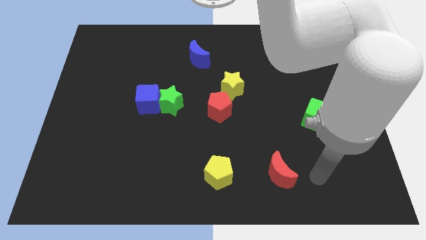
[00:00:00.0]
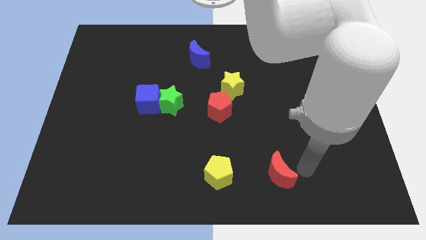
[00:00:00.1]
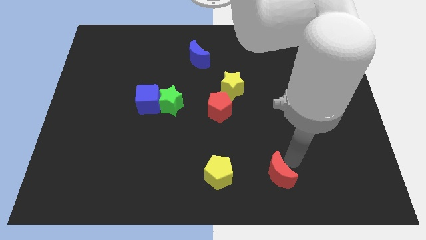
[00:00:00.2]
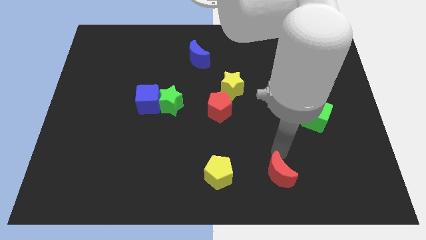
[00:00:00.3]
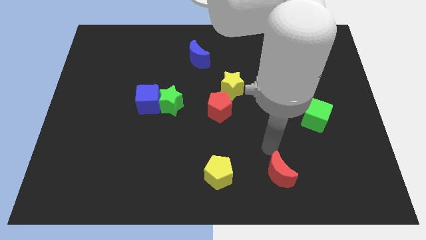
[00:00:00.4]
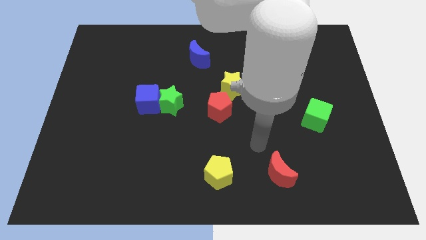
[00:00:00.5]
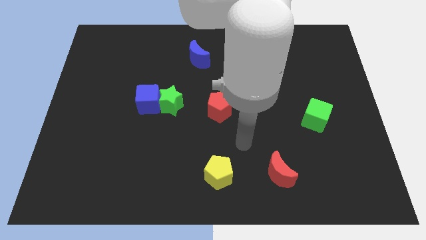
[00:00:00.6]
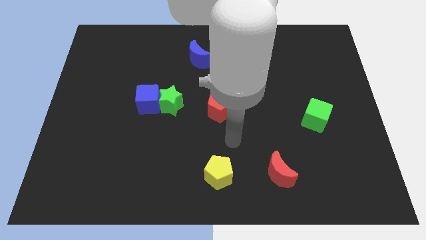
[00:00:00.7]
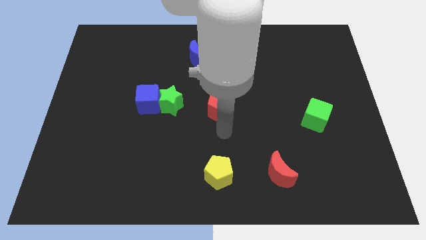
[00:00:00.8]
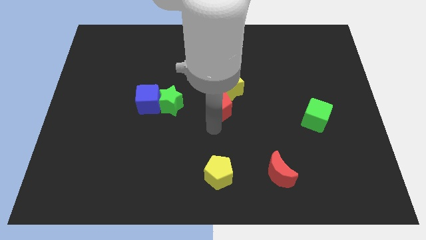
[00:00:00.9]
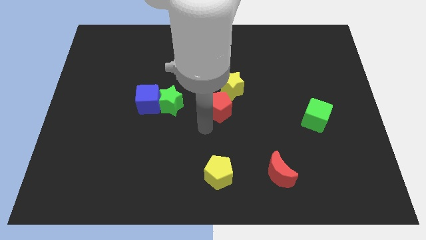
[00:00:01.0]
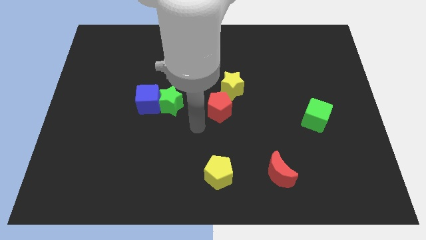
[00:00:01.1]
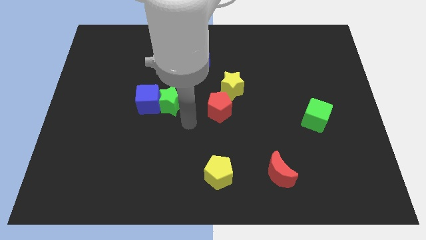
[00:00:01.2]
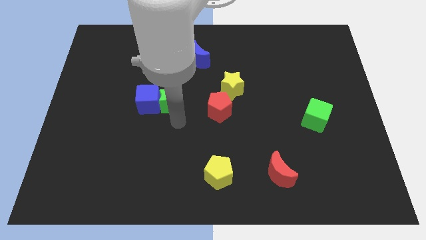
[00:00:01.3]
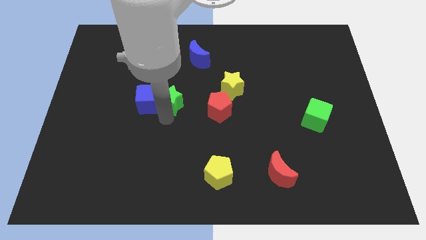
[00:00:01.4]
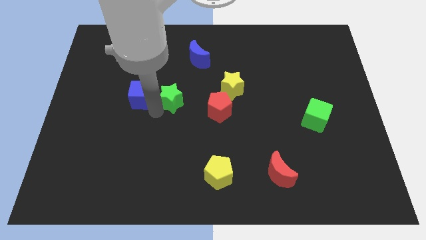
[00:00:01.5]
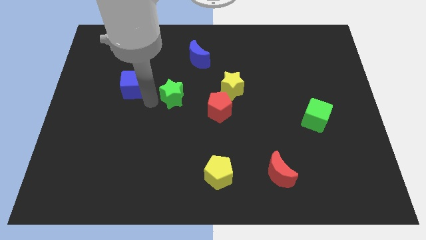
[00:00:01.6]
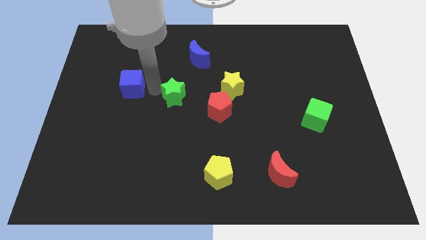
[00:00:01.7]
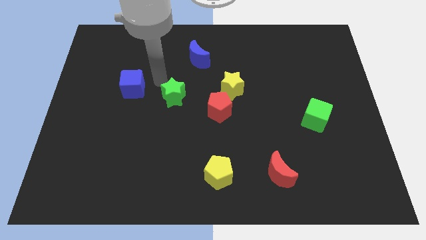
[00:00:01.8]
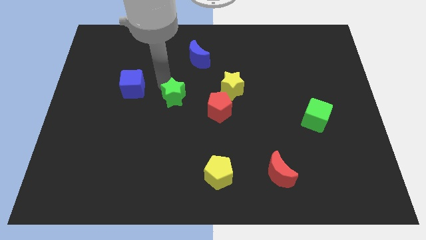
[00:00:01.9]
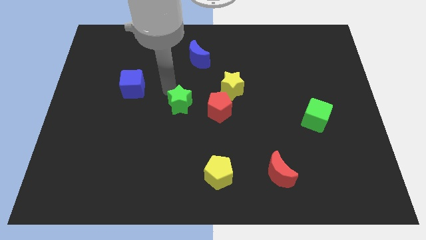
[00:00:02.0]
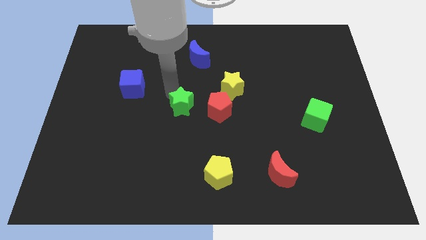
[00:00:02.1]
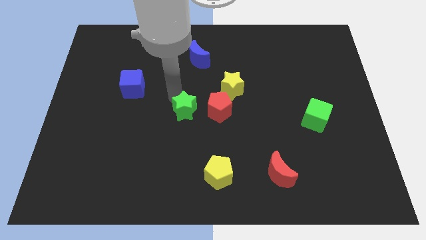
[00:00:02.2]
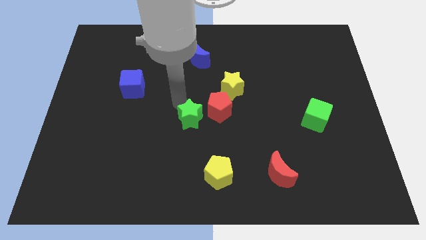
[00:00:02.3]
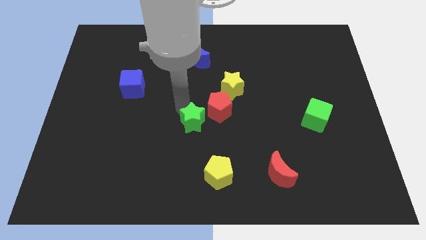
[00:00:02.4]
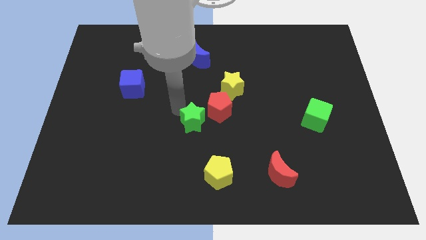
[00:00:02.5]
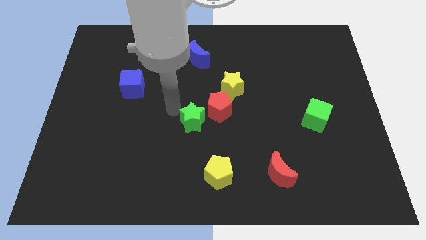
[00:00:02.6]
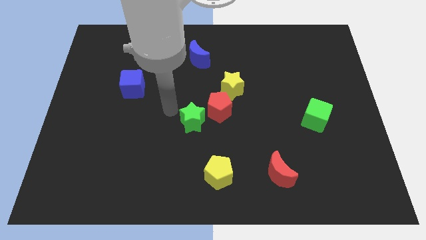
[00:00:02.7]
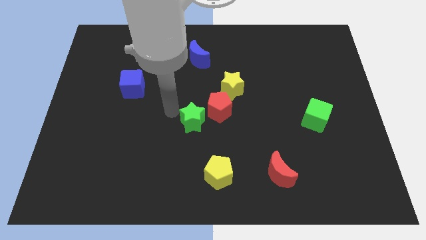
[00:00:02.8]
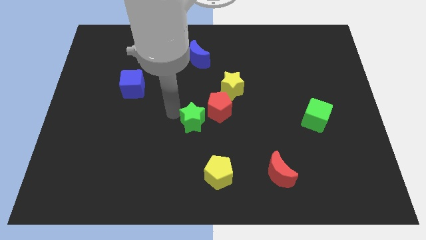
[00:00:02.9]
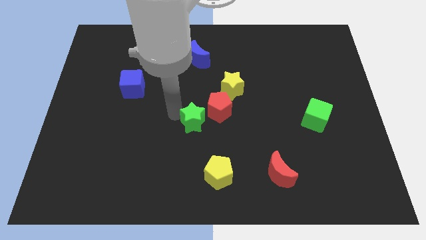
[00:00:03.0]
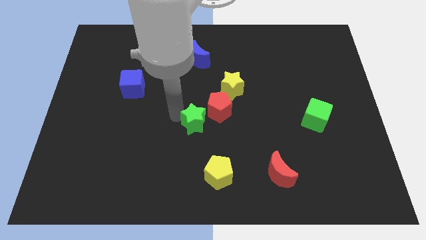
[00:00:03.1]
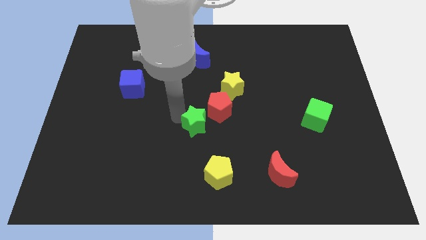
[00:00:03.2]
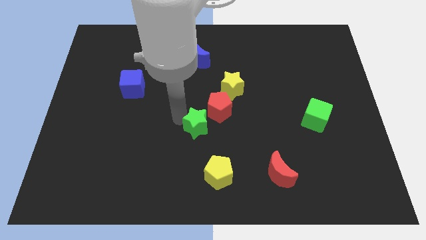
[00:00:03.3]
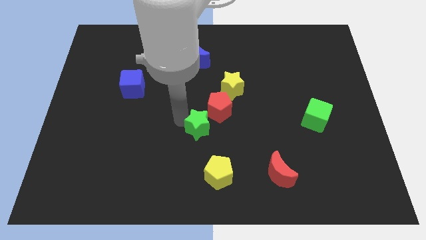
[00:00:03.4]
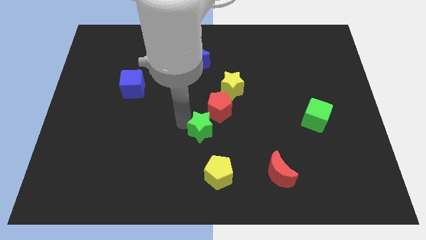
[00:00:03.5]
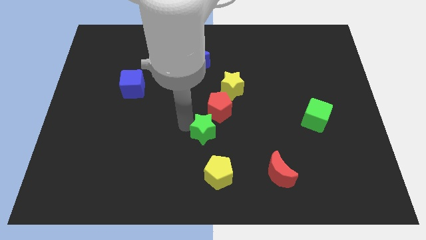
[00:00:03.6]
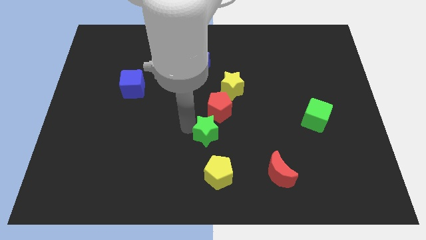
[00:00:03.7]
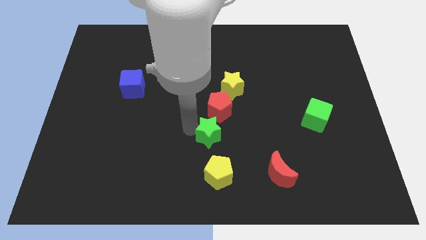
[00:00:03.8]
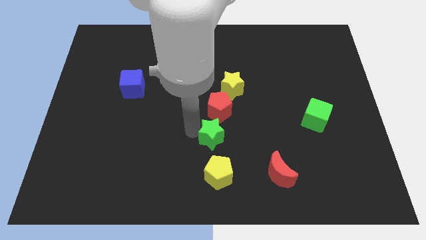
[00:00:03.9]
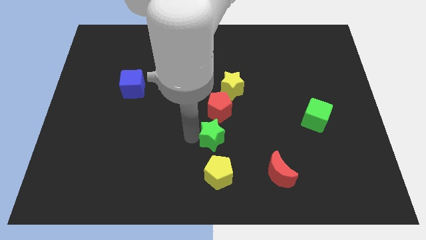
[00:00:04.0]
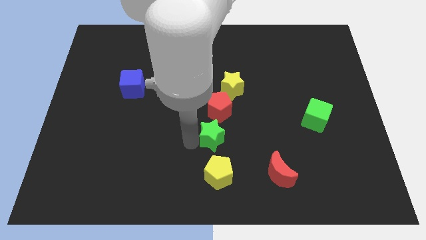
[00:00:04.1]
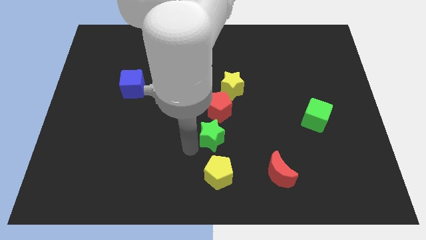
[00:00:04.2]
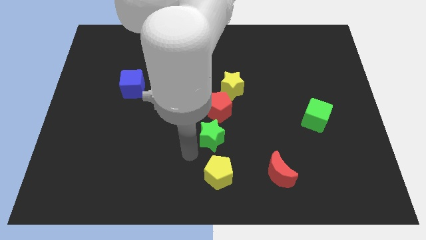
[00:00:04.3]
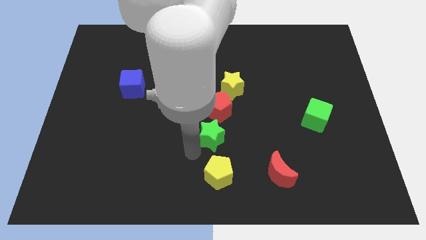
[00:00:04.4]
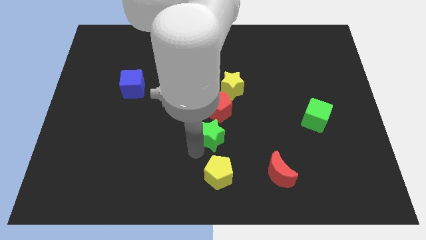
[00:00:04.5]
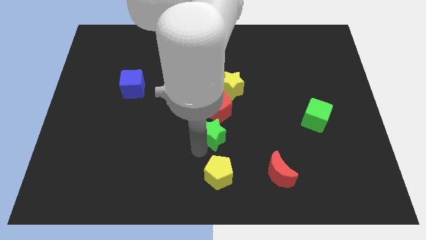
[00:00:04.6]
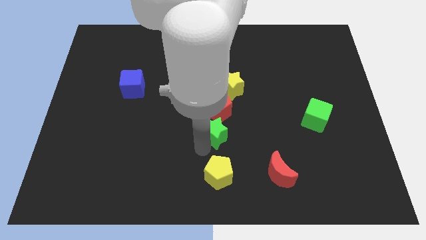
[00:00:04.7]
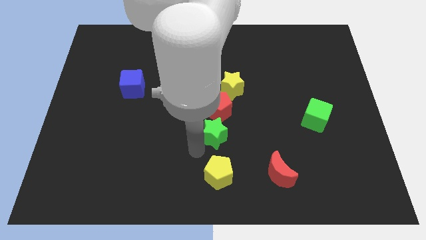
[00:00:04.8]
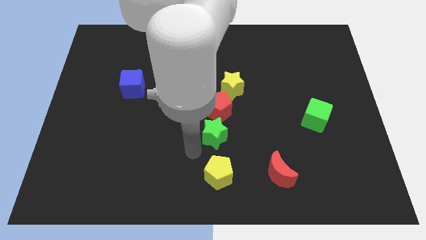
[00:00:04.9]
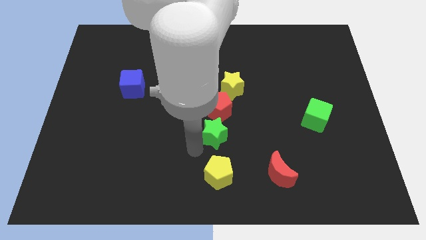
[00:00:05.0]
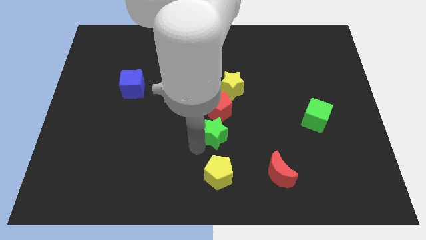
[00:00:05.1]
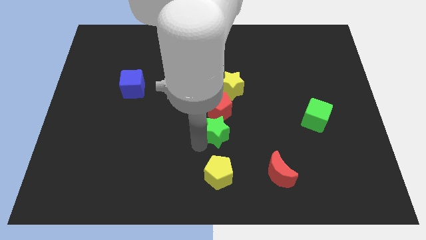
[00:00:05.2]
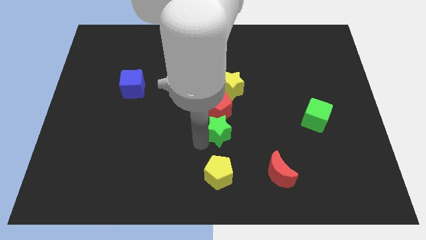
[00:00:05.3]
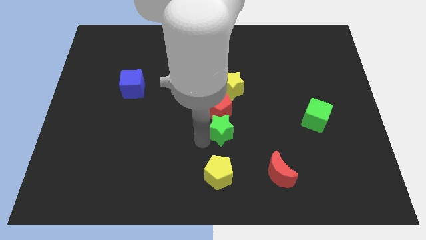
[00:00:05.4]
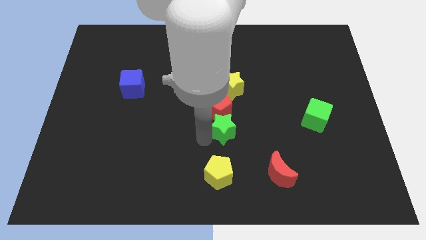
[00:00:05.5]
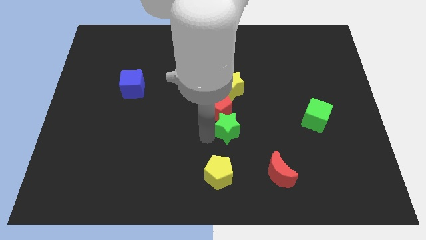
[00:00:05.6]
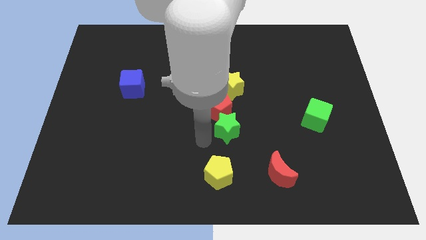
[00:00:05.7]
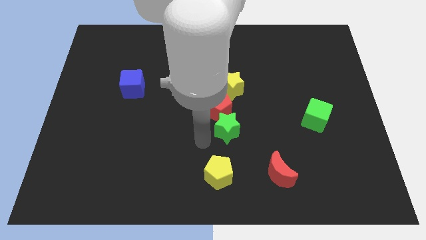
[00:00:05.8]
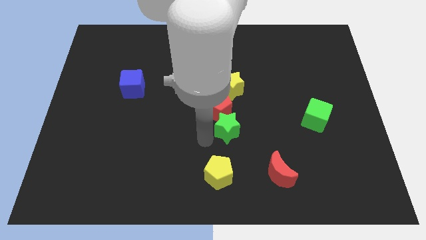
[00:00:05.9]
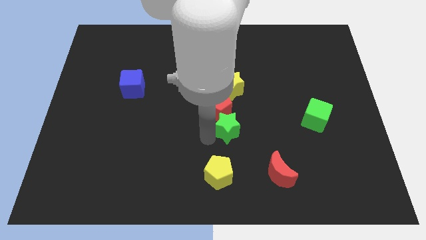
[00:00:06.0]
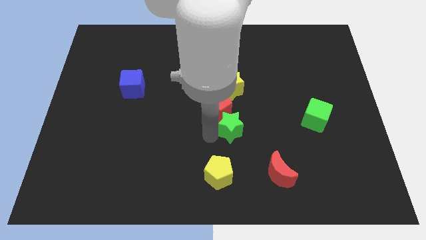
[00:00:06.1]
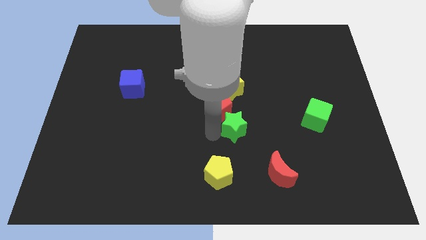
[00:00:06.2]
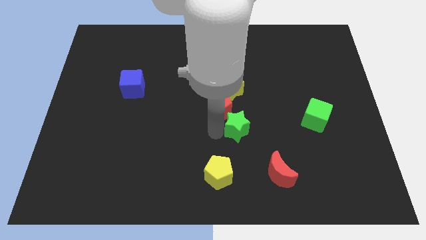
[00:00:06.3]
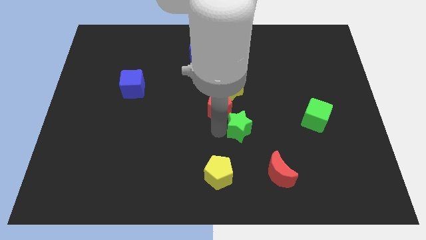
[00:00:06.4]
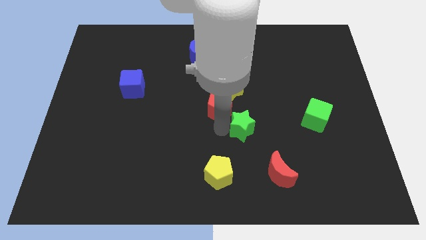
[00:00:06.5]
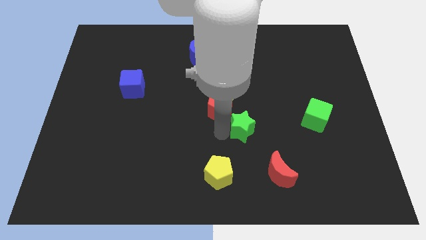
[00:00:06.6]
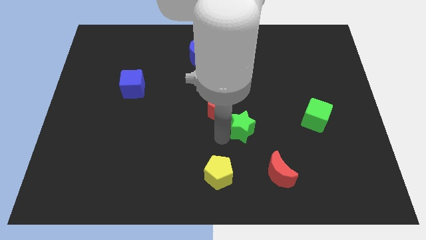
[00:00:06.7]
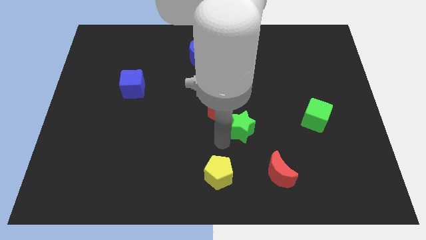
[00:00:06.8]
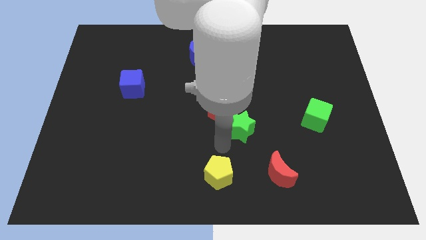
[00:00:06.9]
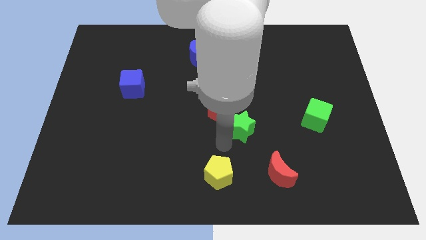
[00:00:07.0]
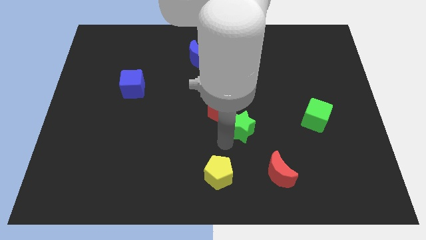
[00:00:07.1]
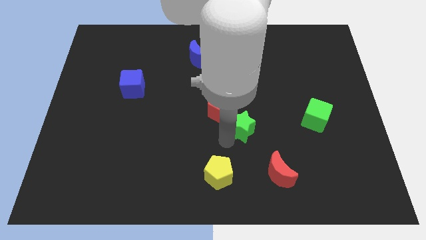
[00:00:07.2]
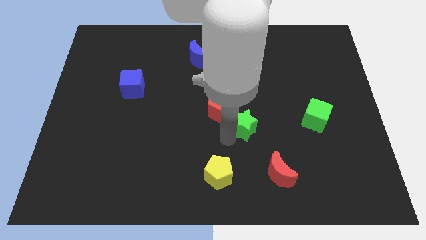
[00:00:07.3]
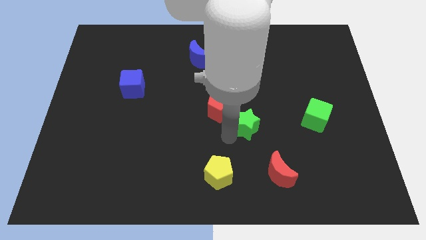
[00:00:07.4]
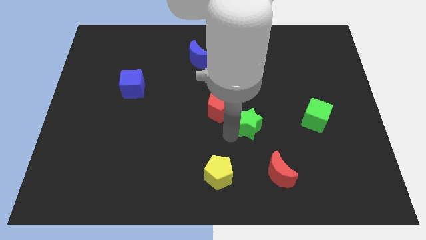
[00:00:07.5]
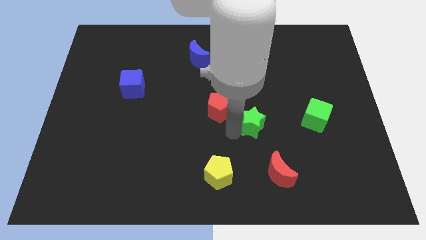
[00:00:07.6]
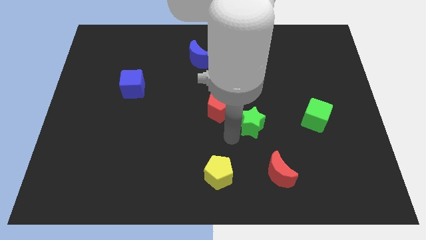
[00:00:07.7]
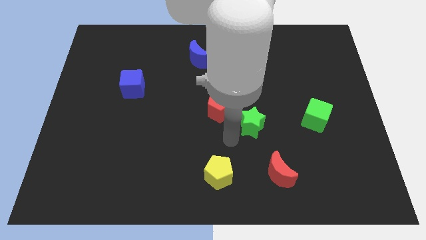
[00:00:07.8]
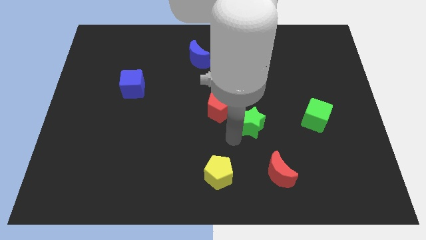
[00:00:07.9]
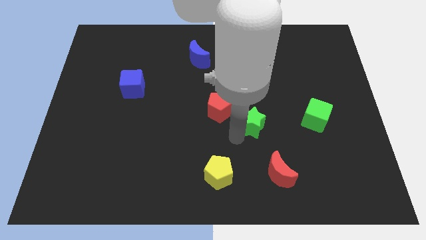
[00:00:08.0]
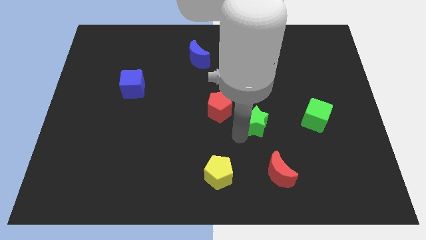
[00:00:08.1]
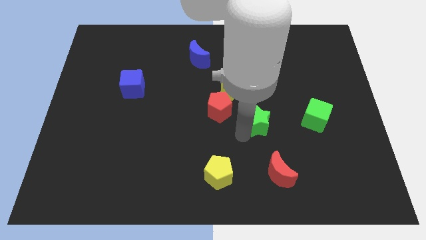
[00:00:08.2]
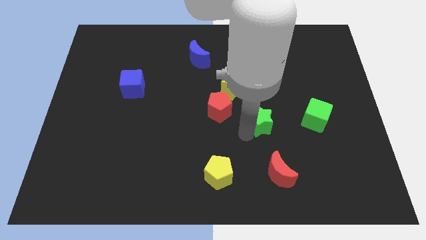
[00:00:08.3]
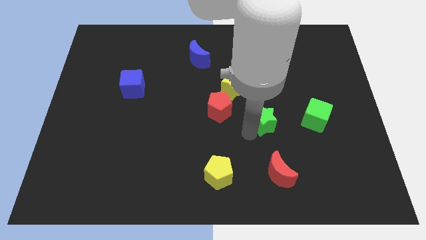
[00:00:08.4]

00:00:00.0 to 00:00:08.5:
push the green star right
